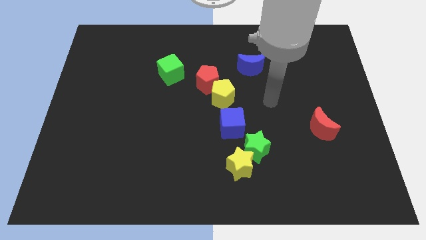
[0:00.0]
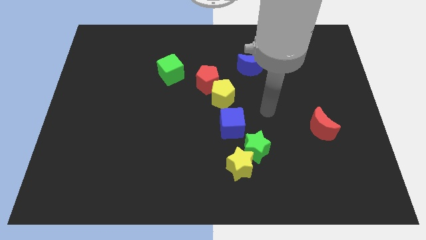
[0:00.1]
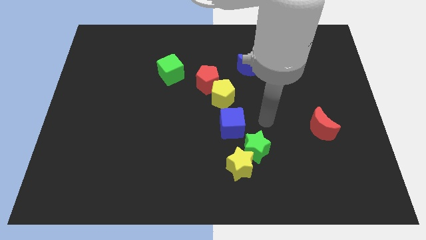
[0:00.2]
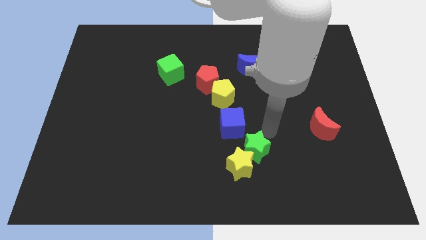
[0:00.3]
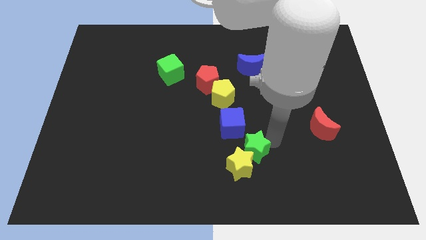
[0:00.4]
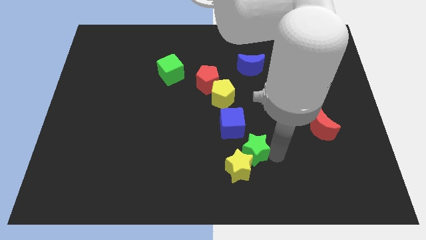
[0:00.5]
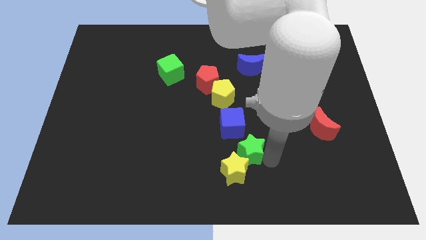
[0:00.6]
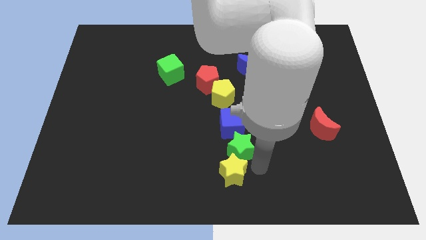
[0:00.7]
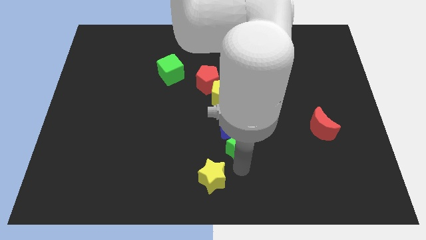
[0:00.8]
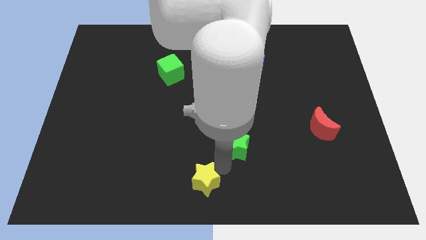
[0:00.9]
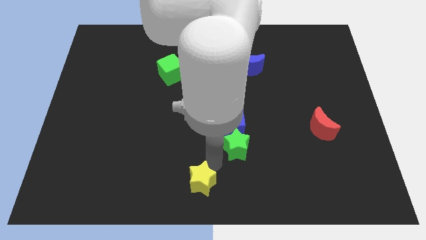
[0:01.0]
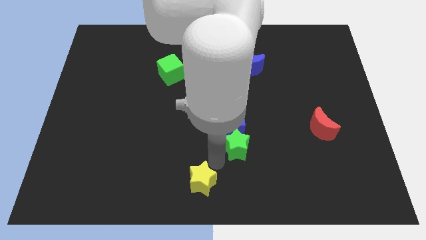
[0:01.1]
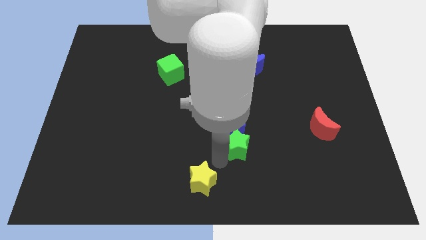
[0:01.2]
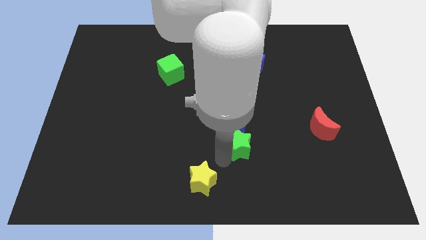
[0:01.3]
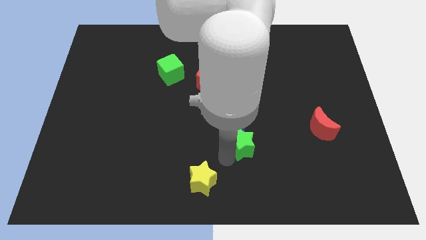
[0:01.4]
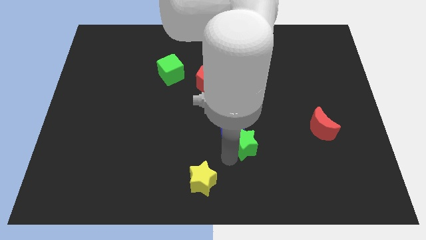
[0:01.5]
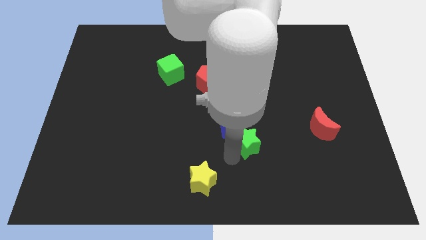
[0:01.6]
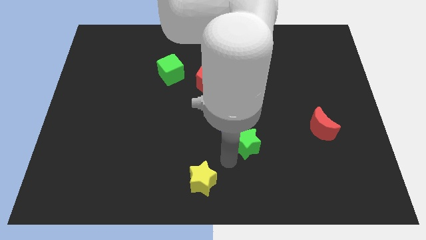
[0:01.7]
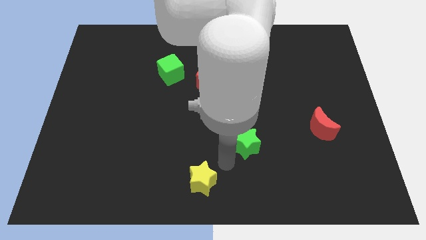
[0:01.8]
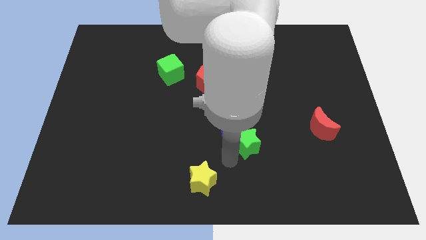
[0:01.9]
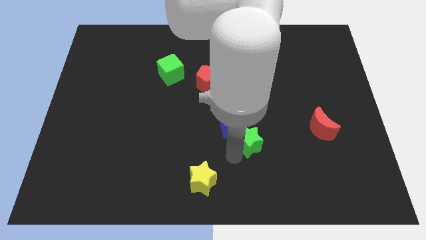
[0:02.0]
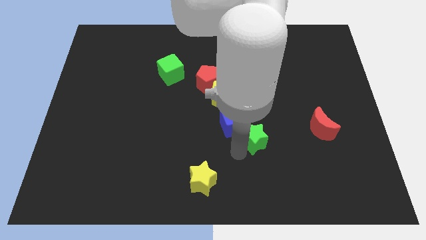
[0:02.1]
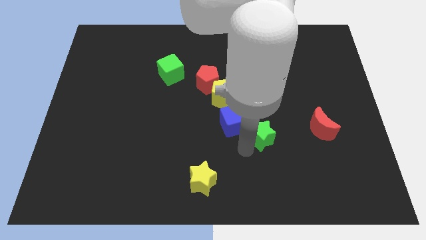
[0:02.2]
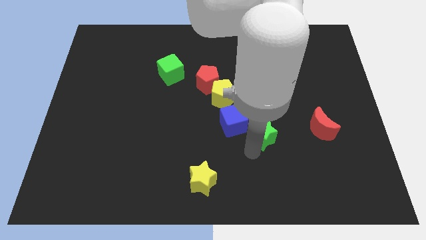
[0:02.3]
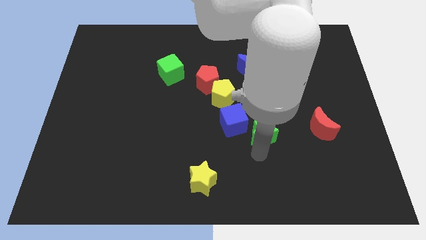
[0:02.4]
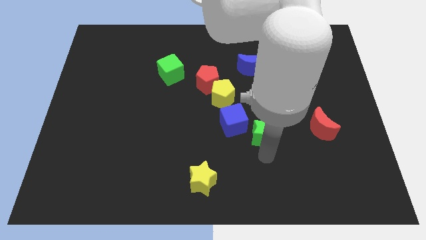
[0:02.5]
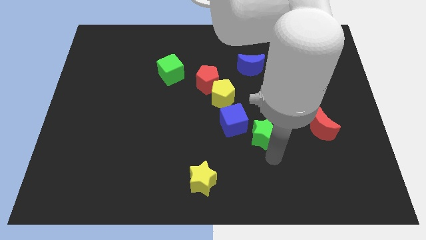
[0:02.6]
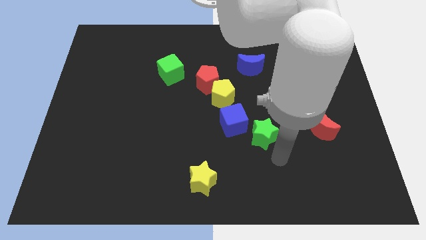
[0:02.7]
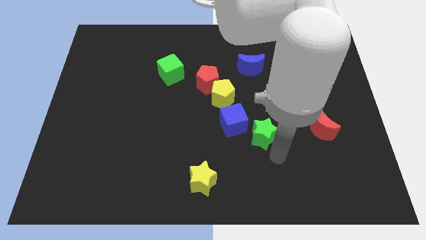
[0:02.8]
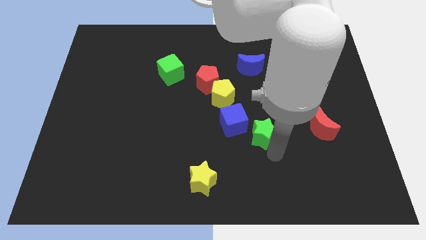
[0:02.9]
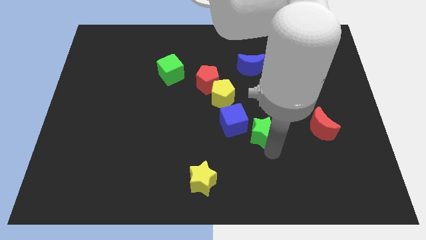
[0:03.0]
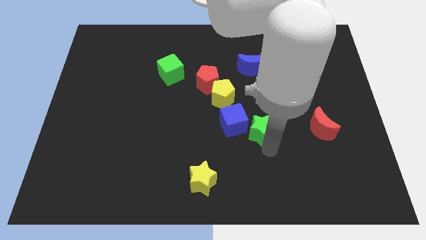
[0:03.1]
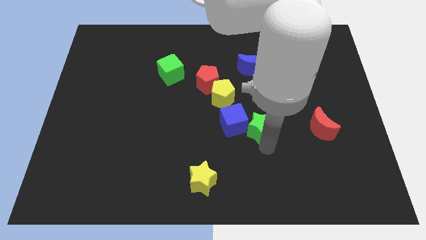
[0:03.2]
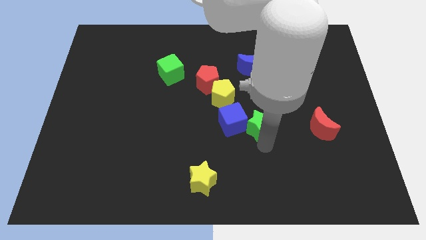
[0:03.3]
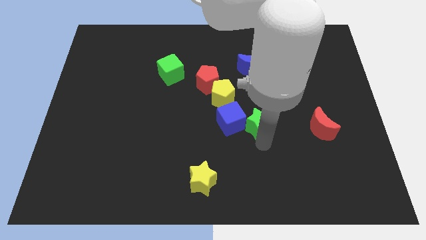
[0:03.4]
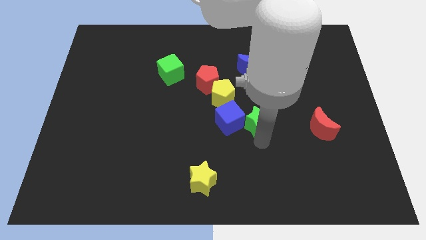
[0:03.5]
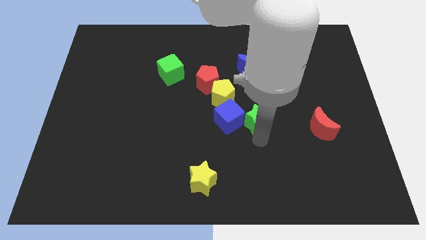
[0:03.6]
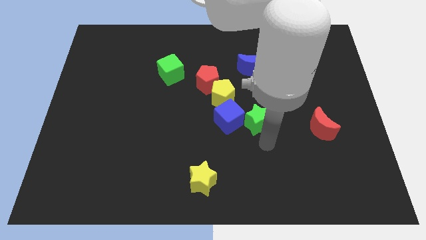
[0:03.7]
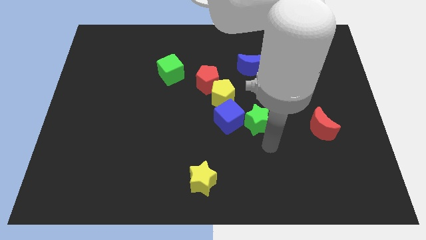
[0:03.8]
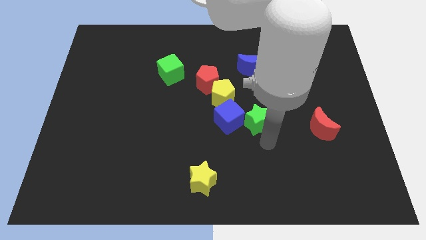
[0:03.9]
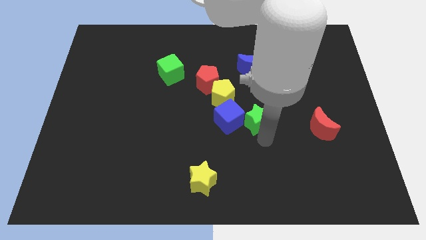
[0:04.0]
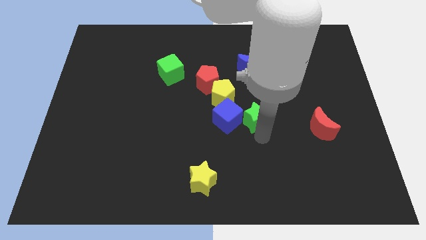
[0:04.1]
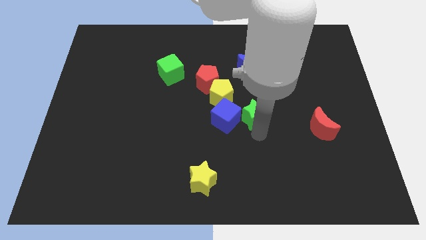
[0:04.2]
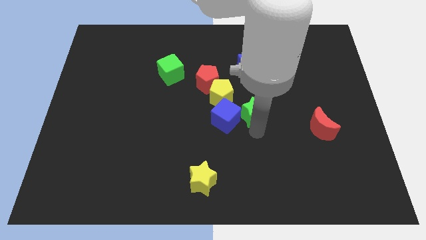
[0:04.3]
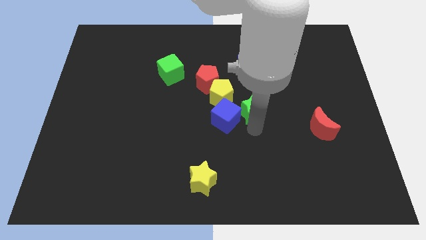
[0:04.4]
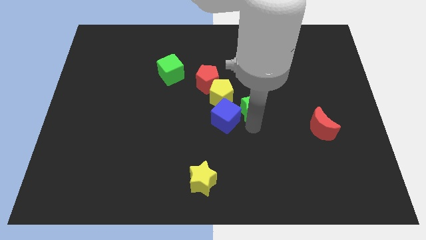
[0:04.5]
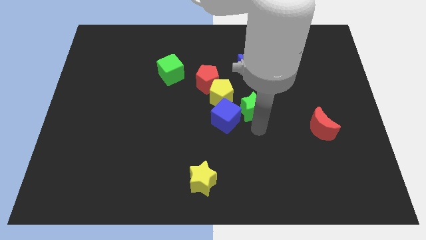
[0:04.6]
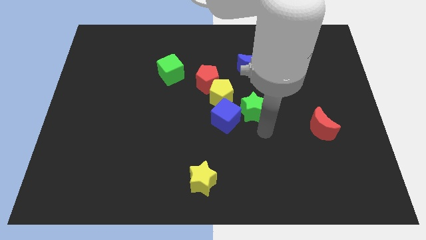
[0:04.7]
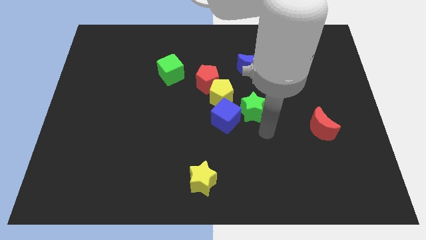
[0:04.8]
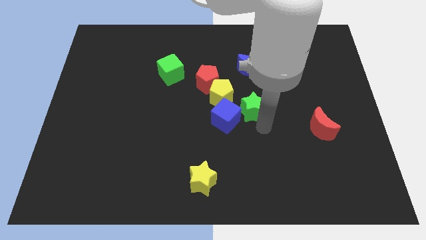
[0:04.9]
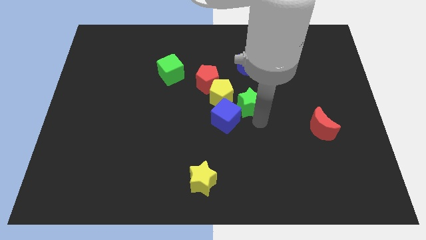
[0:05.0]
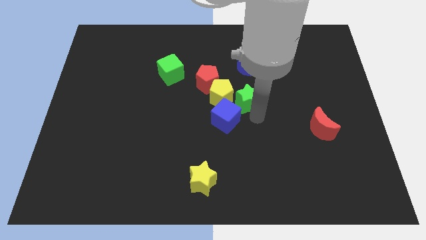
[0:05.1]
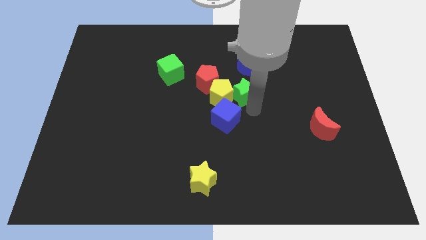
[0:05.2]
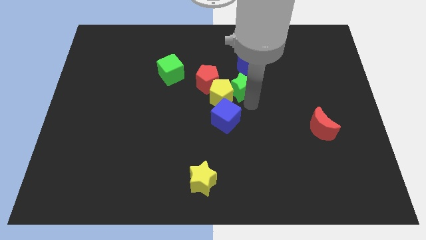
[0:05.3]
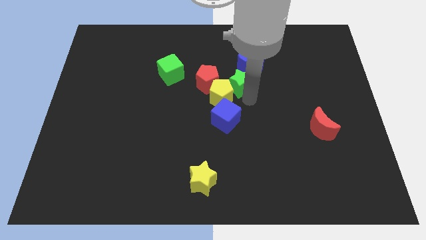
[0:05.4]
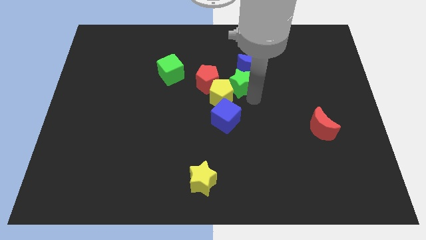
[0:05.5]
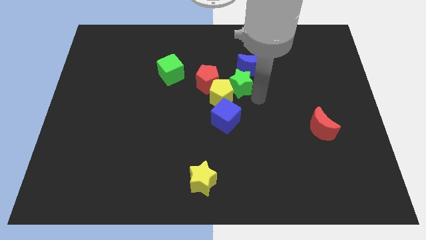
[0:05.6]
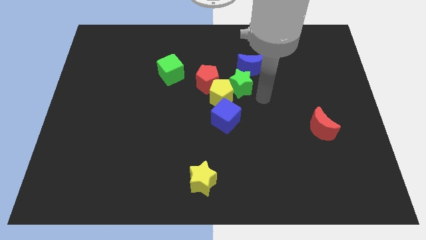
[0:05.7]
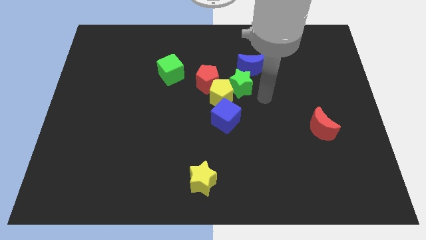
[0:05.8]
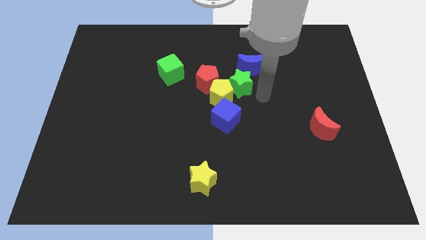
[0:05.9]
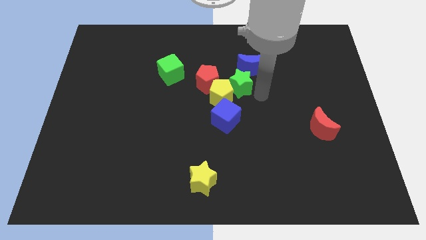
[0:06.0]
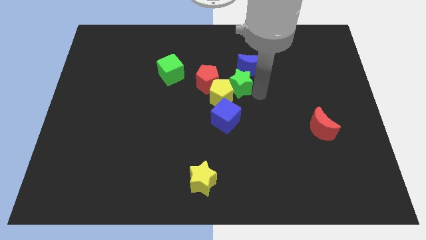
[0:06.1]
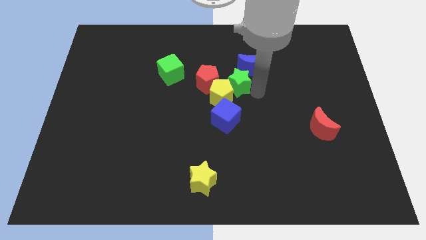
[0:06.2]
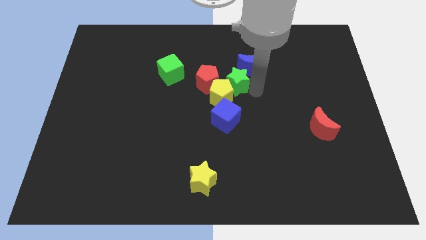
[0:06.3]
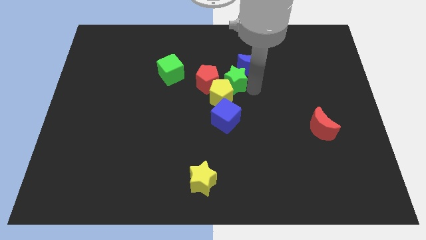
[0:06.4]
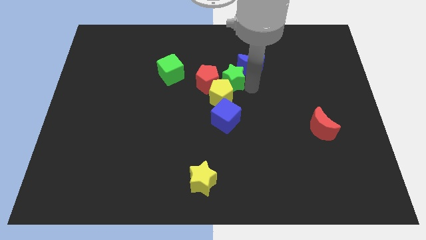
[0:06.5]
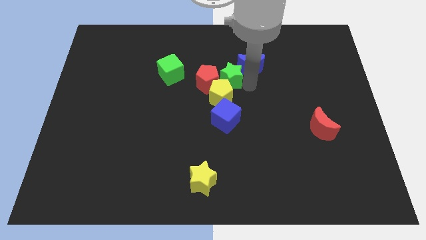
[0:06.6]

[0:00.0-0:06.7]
push the green star to the right side of the green cube

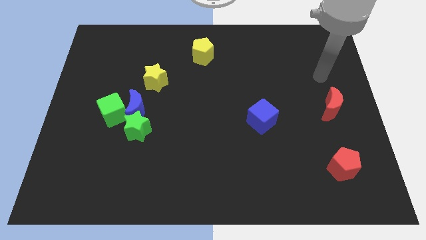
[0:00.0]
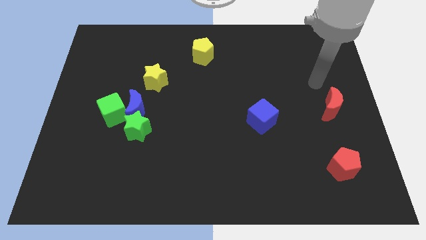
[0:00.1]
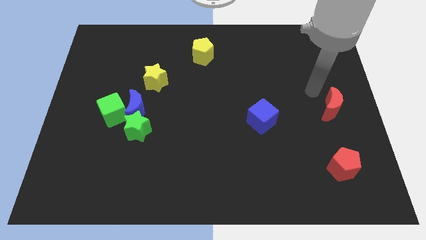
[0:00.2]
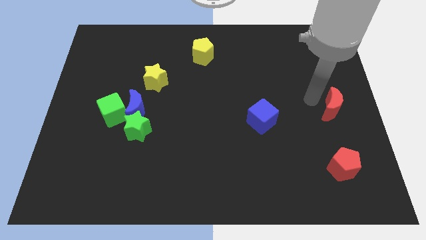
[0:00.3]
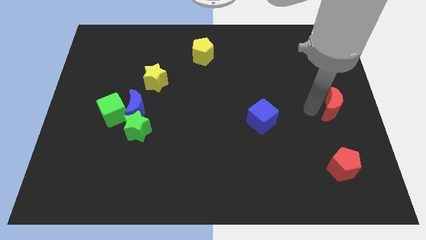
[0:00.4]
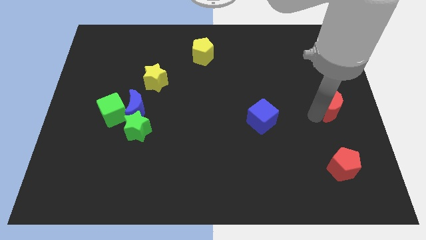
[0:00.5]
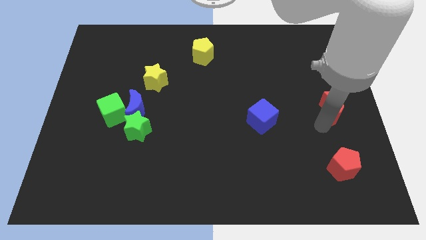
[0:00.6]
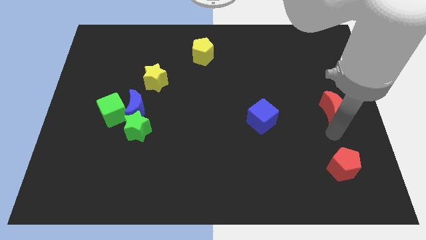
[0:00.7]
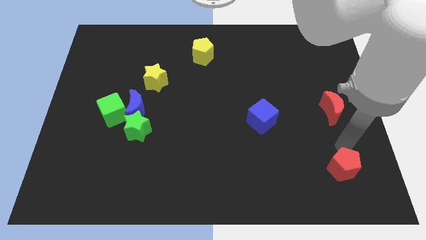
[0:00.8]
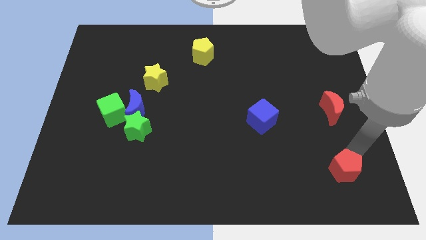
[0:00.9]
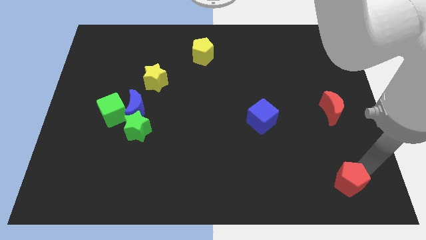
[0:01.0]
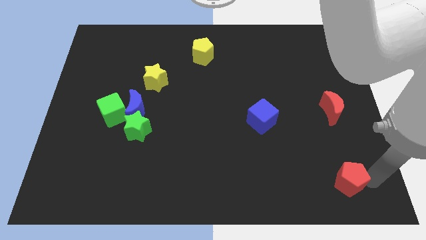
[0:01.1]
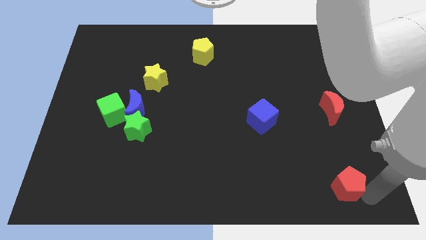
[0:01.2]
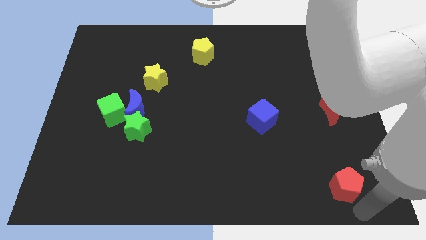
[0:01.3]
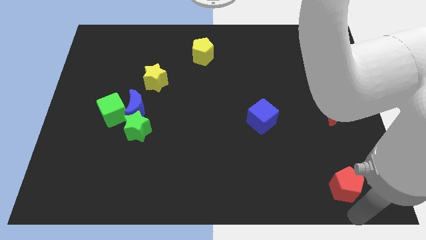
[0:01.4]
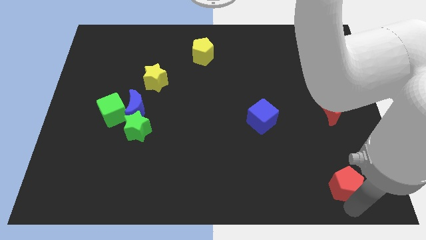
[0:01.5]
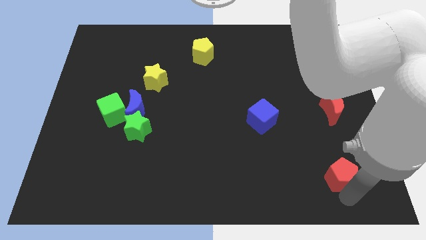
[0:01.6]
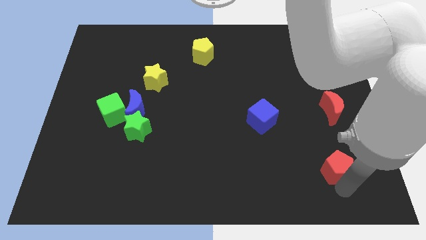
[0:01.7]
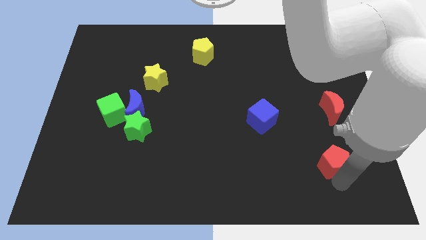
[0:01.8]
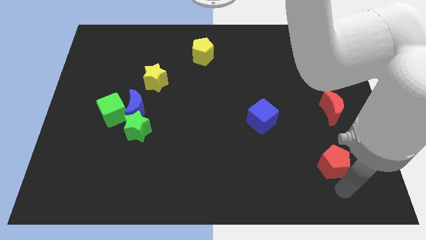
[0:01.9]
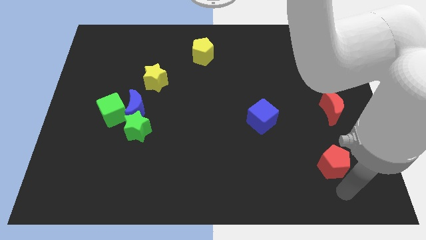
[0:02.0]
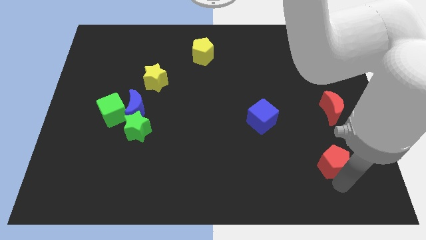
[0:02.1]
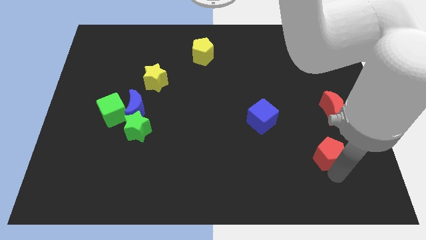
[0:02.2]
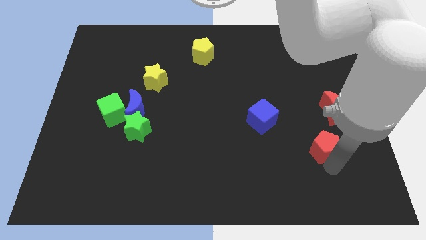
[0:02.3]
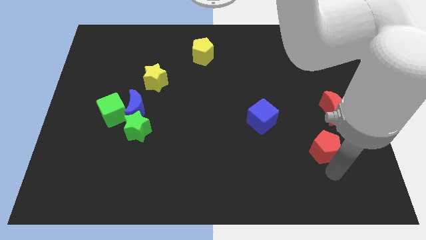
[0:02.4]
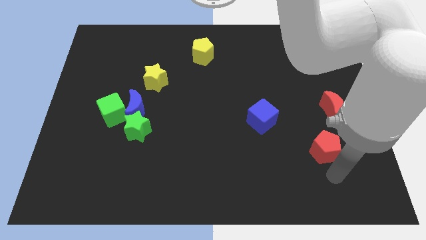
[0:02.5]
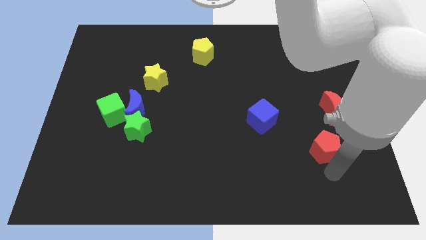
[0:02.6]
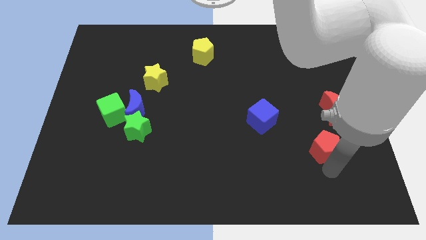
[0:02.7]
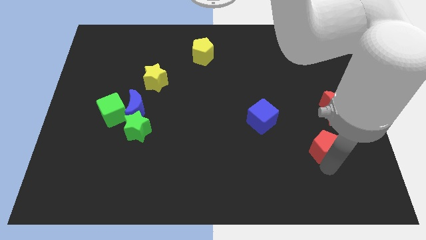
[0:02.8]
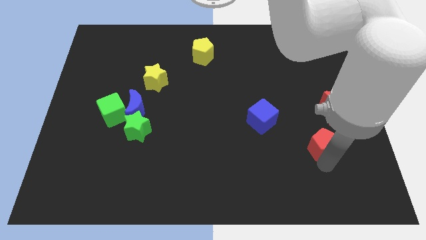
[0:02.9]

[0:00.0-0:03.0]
push the red pentagon to the bottom left side of the red moon
